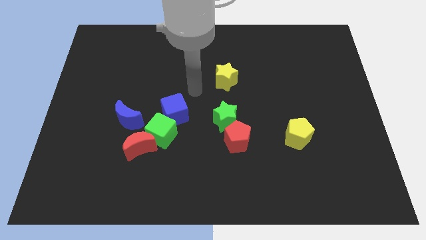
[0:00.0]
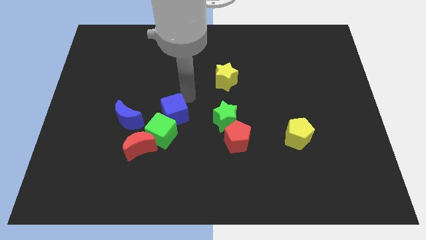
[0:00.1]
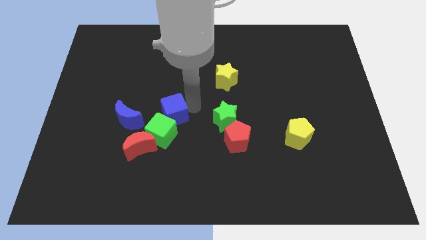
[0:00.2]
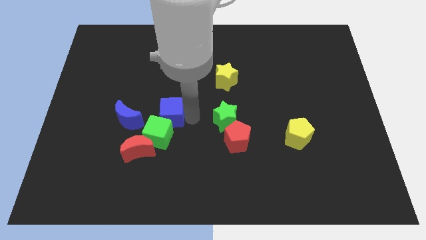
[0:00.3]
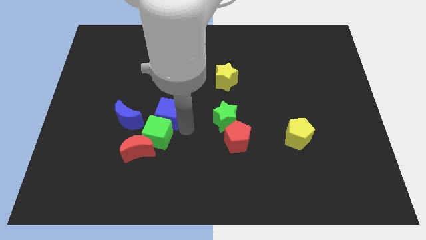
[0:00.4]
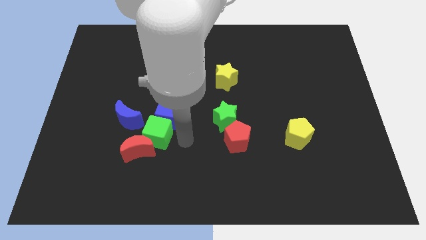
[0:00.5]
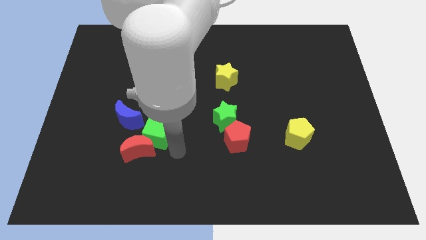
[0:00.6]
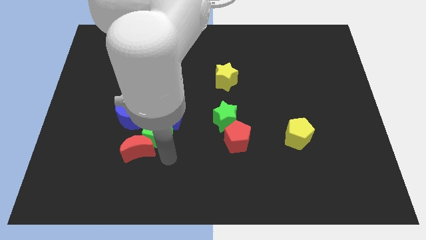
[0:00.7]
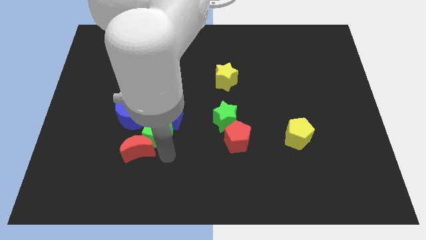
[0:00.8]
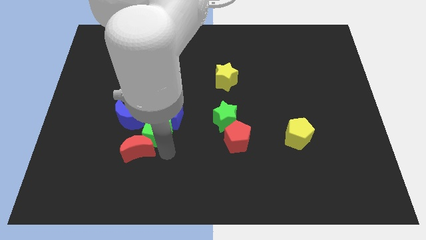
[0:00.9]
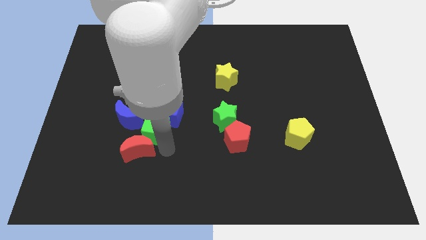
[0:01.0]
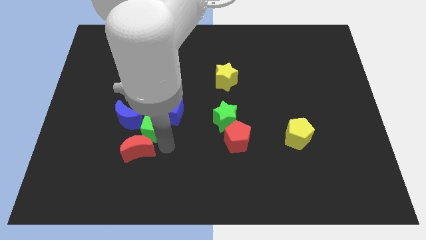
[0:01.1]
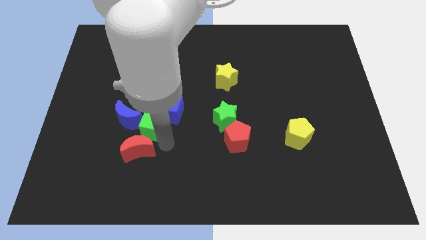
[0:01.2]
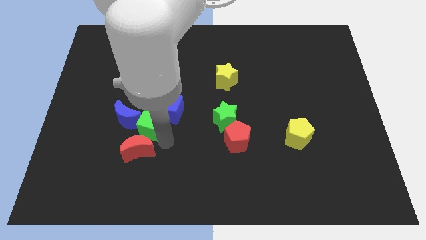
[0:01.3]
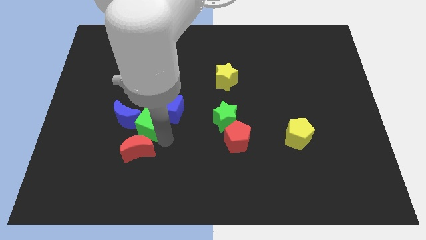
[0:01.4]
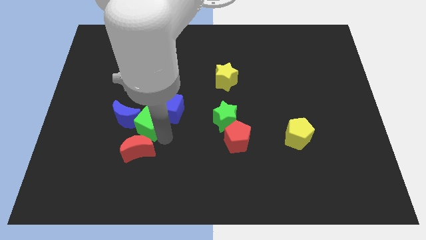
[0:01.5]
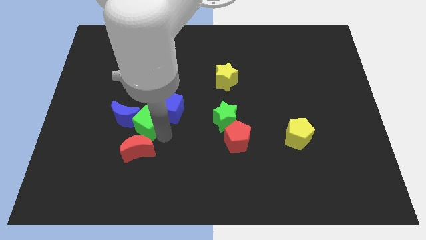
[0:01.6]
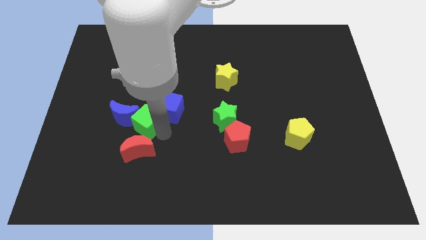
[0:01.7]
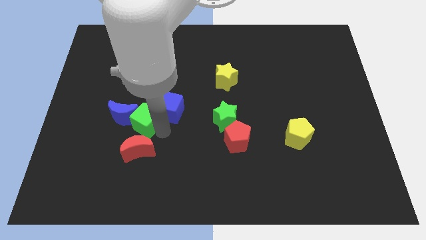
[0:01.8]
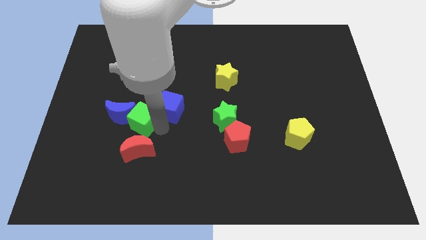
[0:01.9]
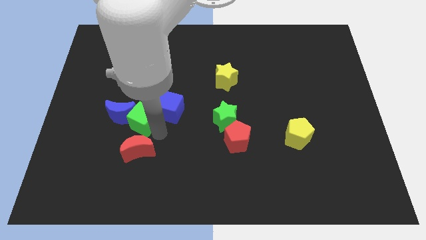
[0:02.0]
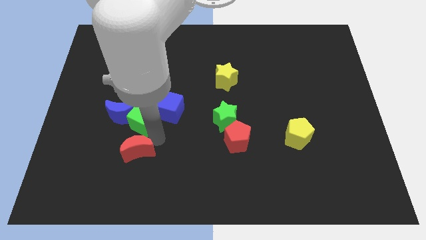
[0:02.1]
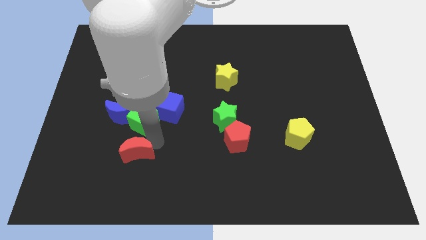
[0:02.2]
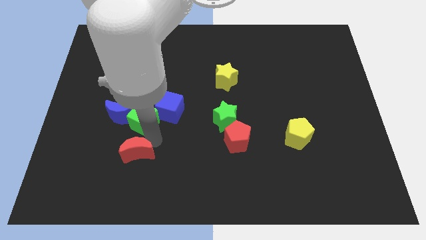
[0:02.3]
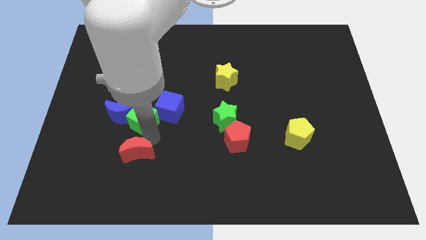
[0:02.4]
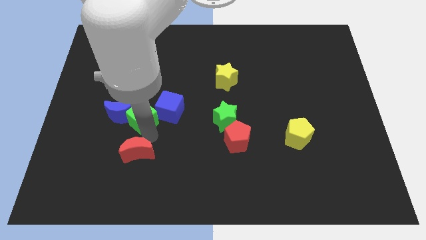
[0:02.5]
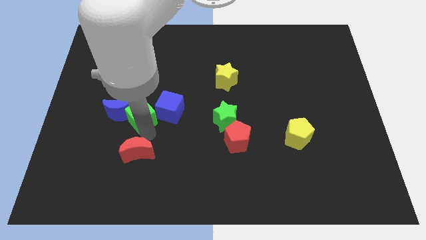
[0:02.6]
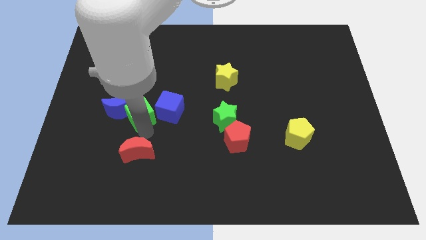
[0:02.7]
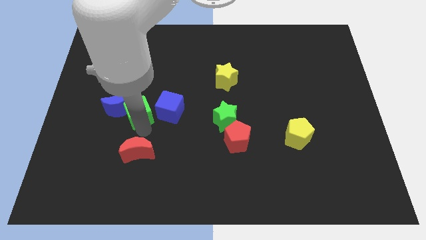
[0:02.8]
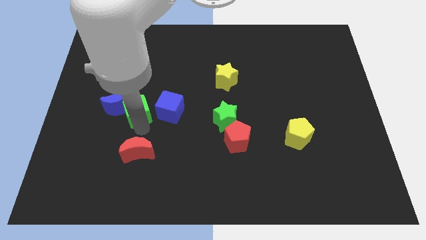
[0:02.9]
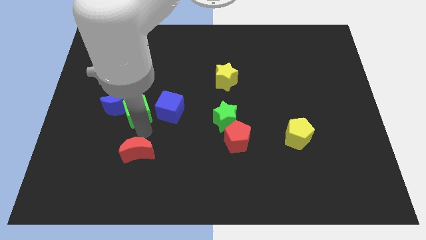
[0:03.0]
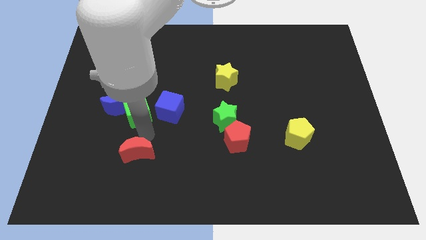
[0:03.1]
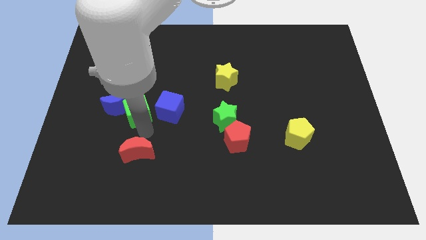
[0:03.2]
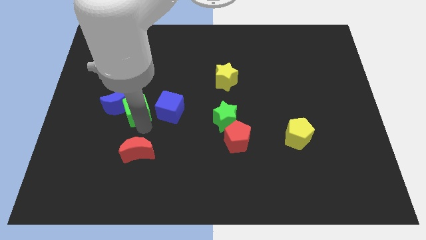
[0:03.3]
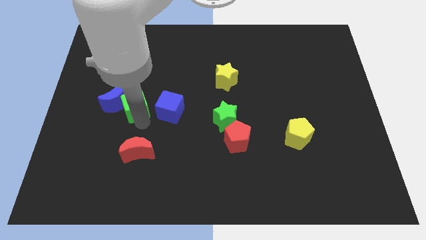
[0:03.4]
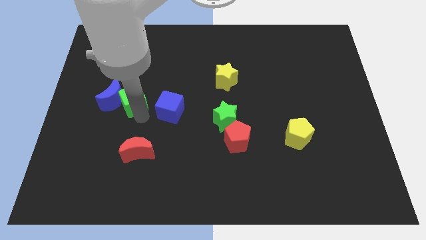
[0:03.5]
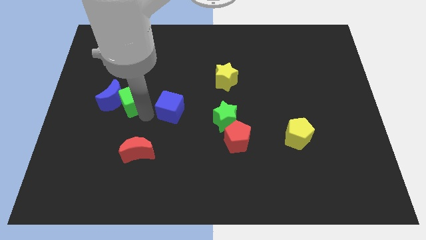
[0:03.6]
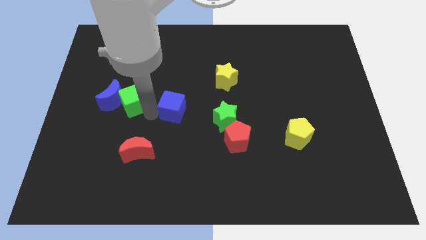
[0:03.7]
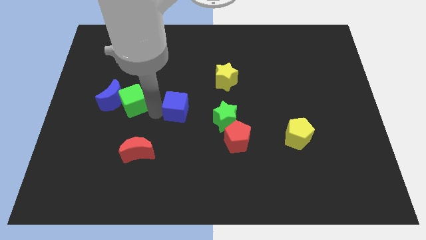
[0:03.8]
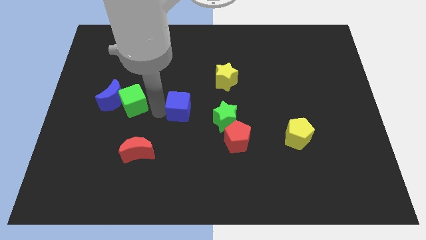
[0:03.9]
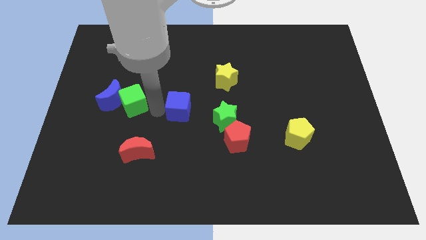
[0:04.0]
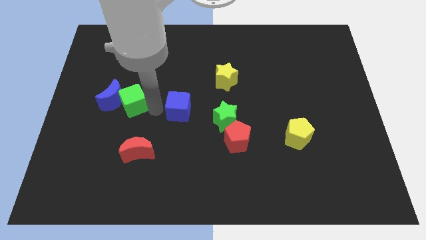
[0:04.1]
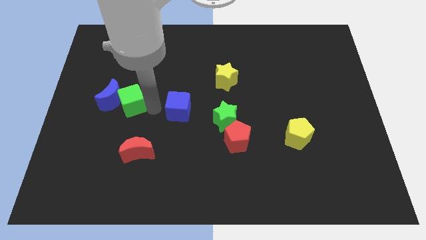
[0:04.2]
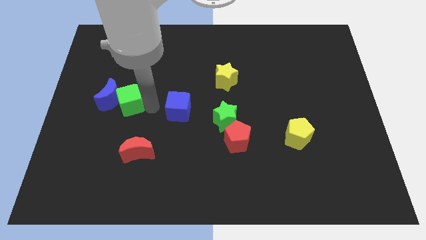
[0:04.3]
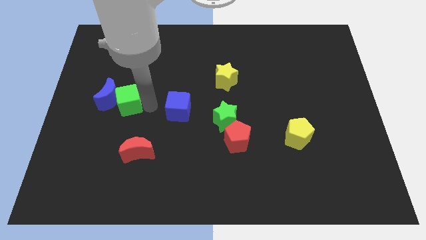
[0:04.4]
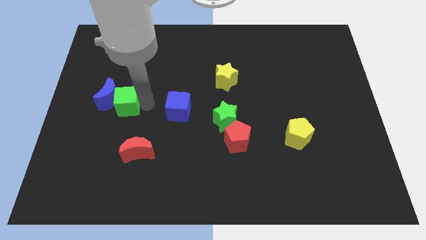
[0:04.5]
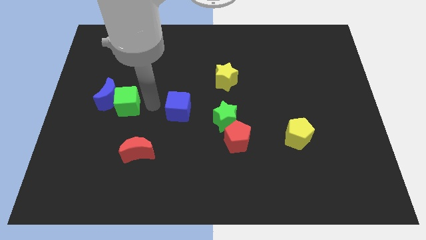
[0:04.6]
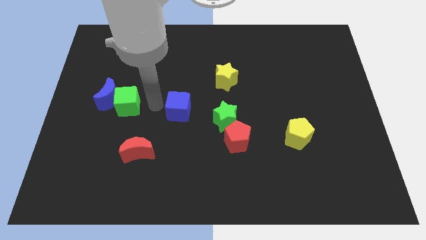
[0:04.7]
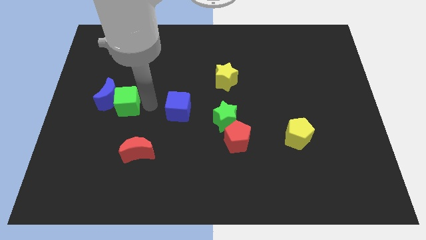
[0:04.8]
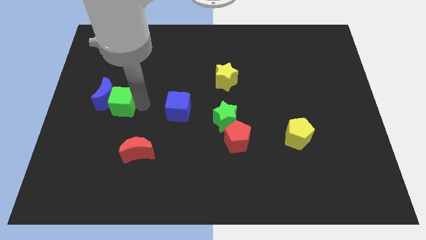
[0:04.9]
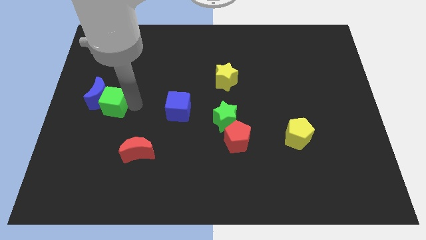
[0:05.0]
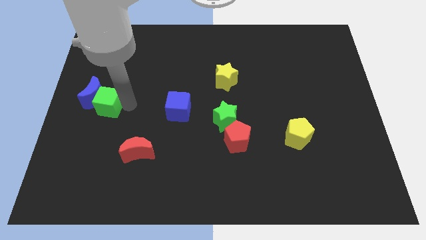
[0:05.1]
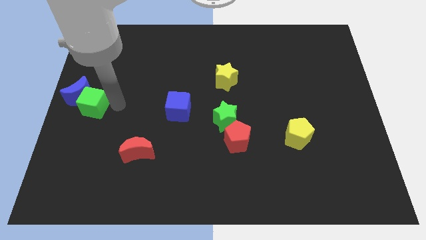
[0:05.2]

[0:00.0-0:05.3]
slide the green cube to the left side of the board
